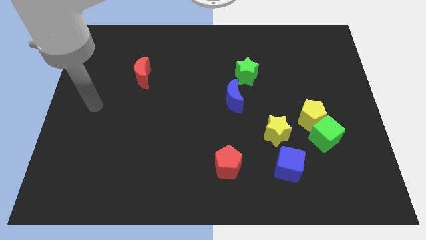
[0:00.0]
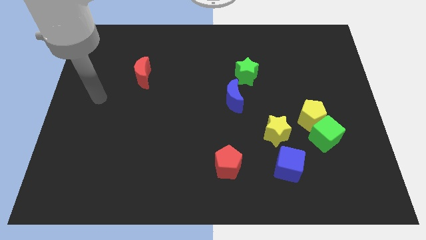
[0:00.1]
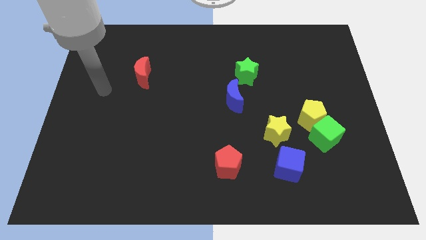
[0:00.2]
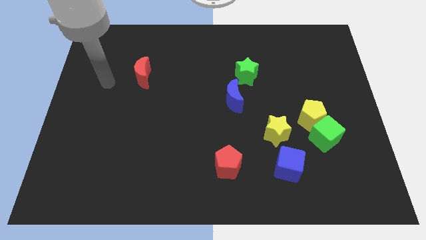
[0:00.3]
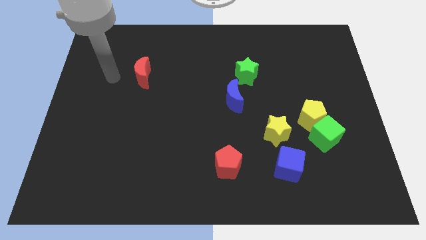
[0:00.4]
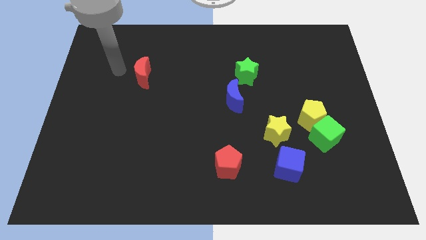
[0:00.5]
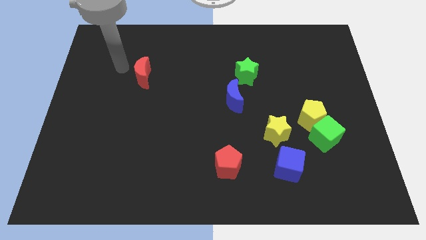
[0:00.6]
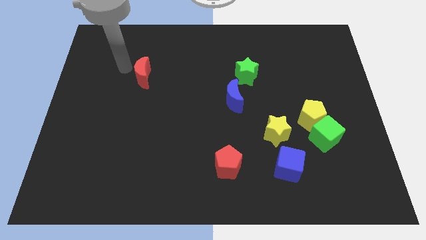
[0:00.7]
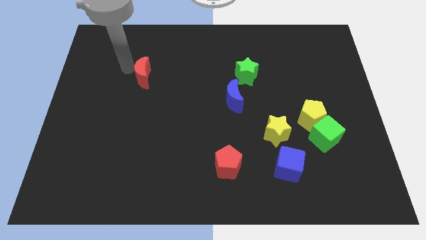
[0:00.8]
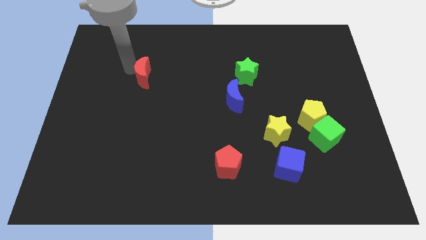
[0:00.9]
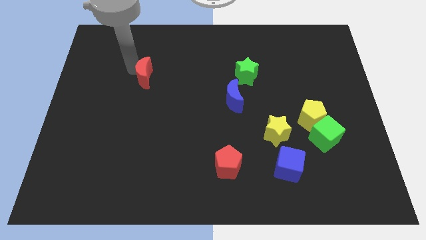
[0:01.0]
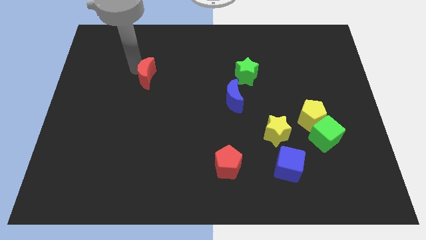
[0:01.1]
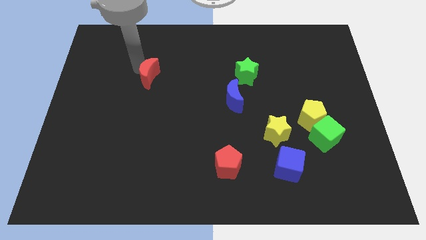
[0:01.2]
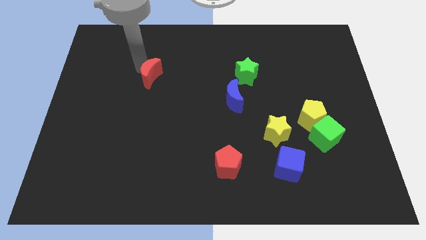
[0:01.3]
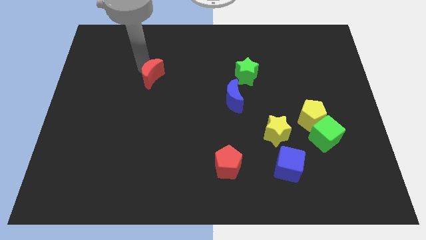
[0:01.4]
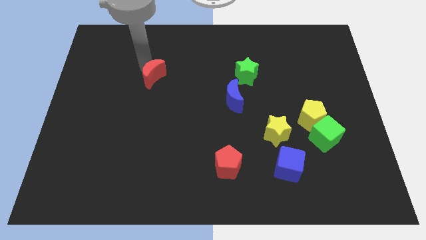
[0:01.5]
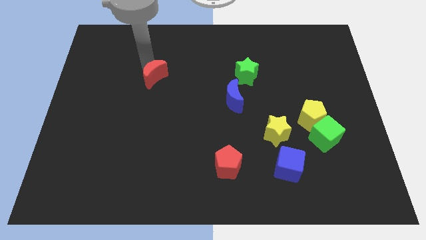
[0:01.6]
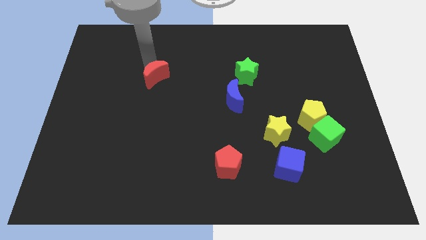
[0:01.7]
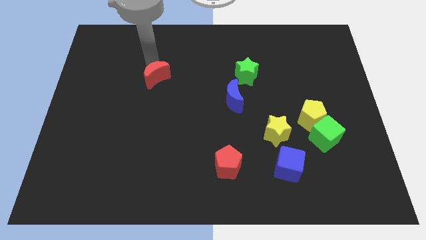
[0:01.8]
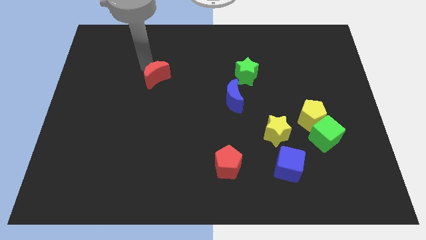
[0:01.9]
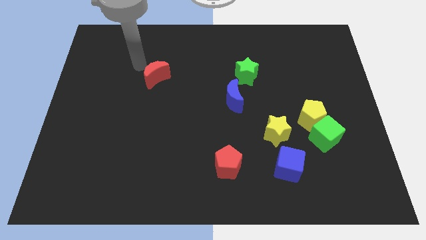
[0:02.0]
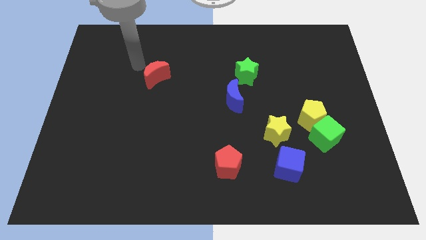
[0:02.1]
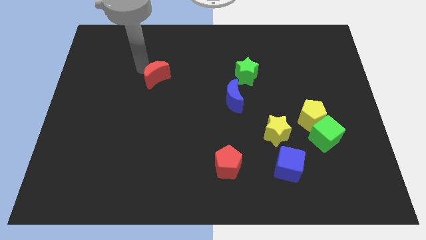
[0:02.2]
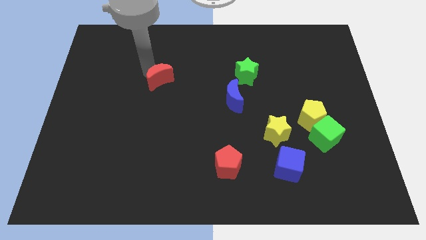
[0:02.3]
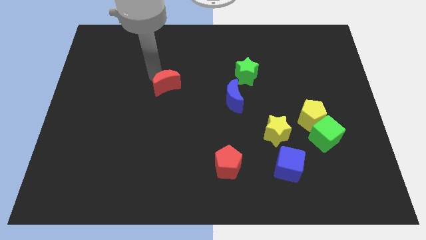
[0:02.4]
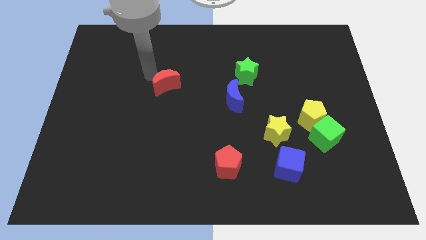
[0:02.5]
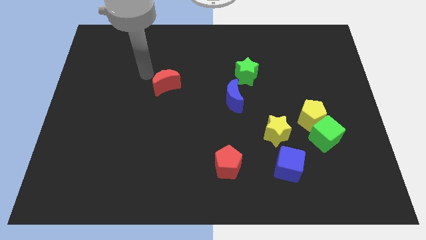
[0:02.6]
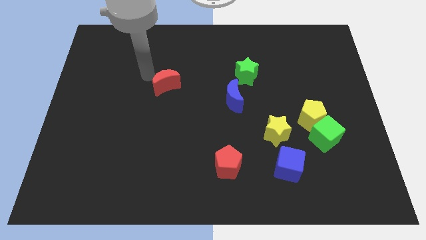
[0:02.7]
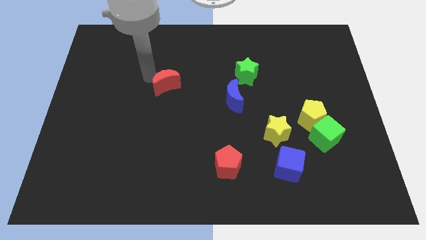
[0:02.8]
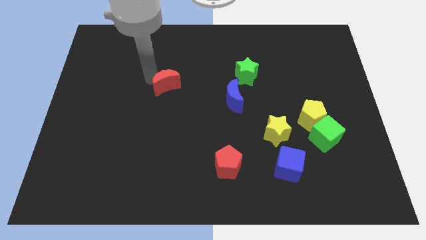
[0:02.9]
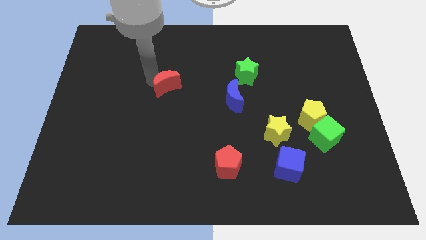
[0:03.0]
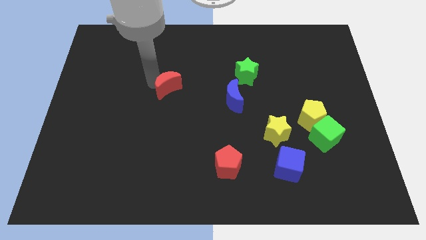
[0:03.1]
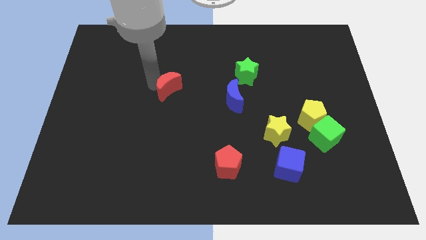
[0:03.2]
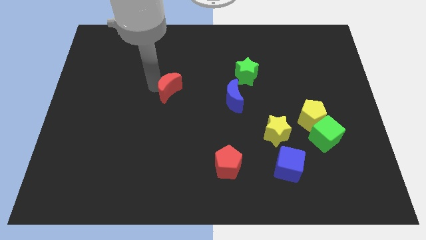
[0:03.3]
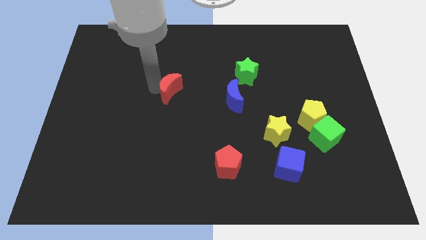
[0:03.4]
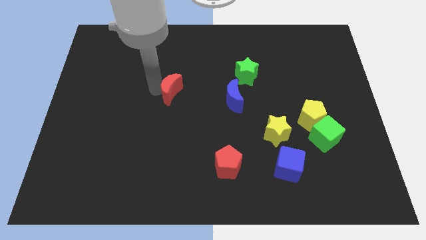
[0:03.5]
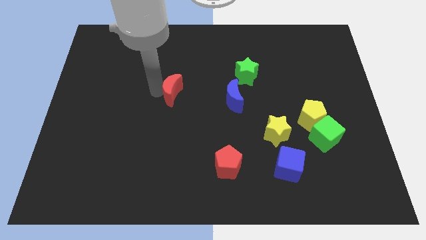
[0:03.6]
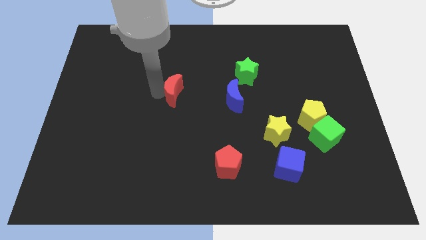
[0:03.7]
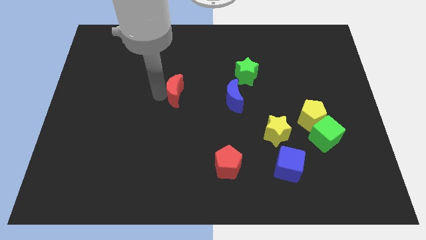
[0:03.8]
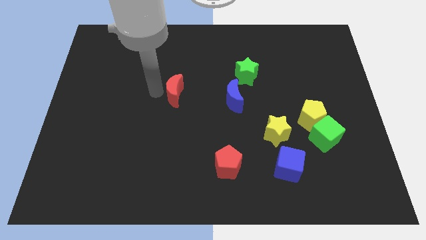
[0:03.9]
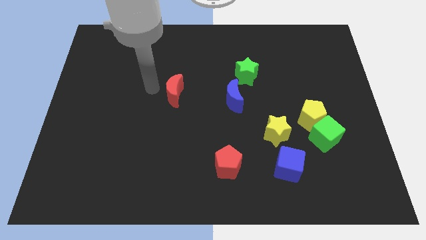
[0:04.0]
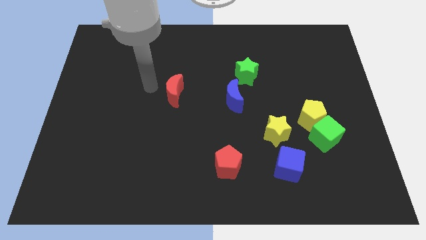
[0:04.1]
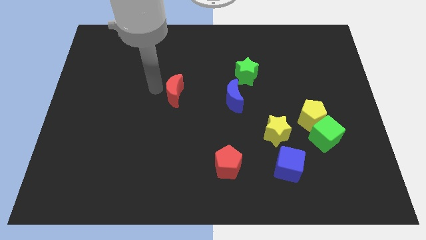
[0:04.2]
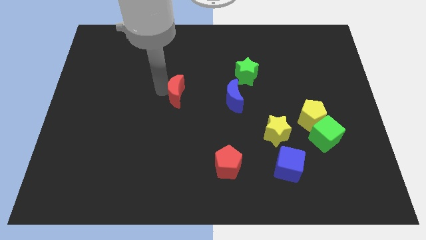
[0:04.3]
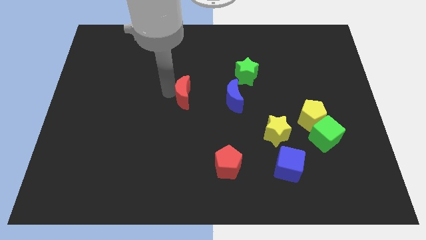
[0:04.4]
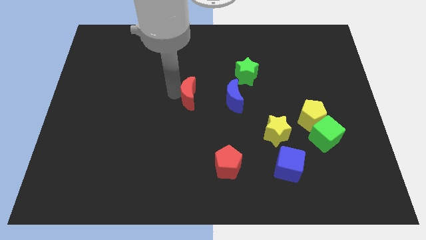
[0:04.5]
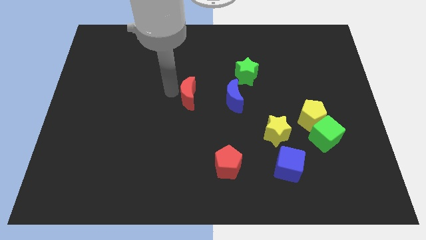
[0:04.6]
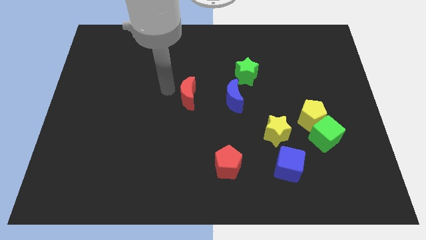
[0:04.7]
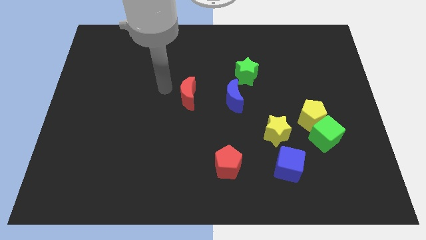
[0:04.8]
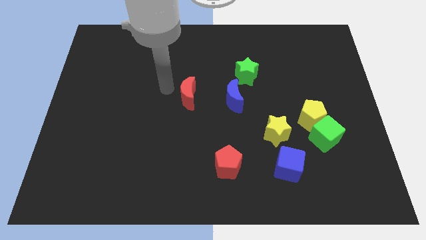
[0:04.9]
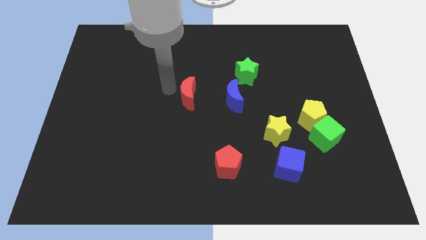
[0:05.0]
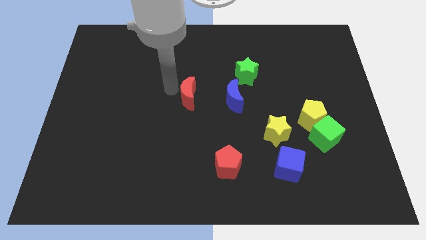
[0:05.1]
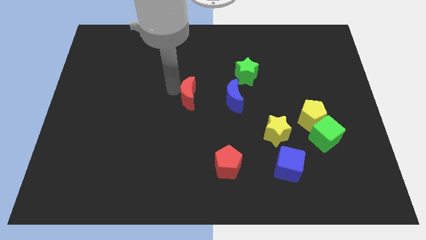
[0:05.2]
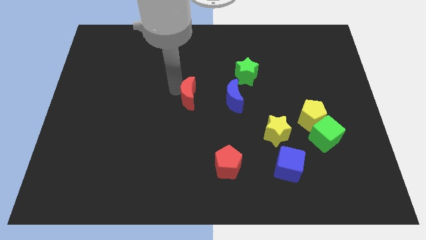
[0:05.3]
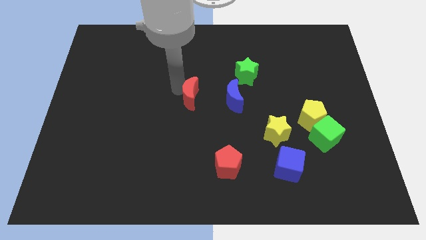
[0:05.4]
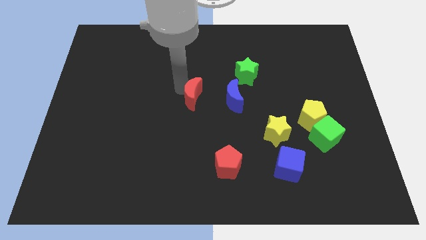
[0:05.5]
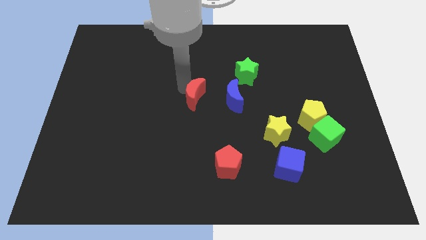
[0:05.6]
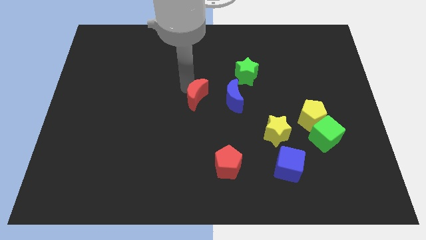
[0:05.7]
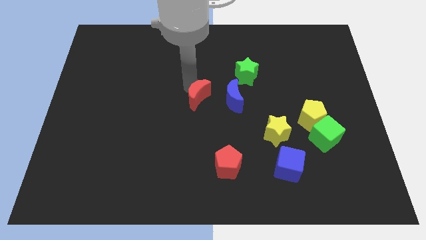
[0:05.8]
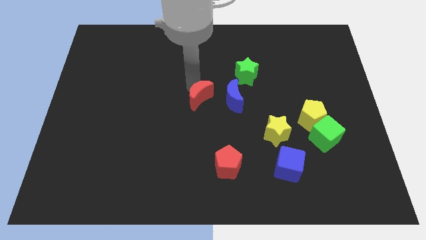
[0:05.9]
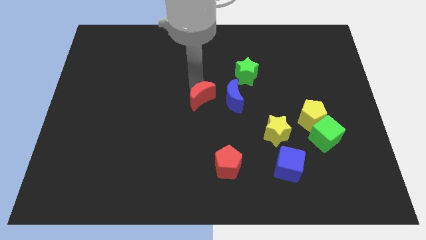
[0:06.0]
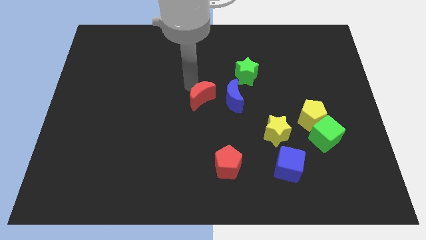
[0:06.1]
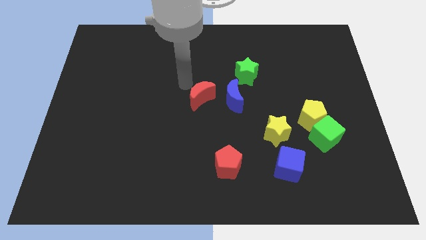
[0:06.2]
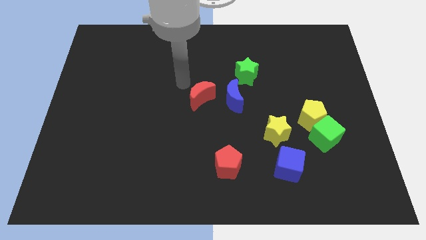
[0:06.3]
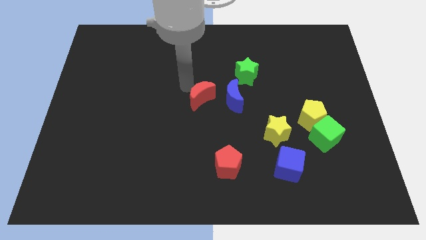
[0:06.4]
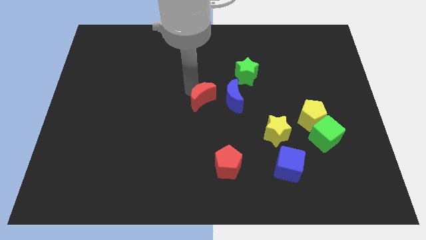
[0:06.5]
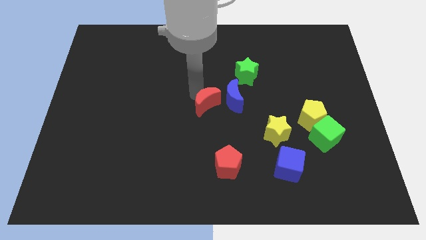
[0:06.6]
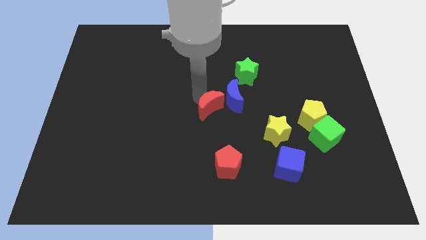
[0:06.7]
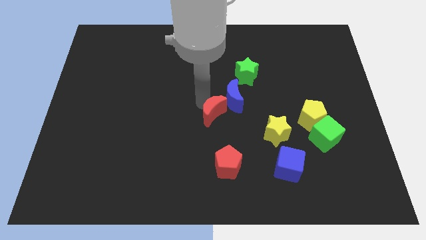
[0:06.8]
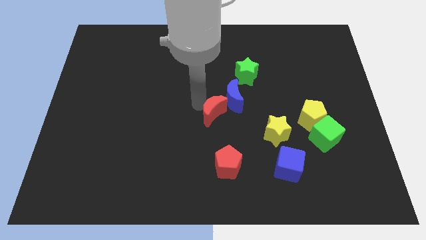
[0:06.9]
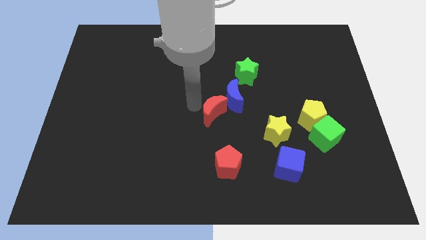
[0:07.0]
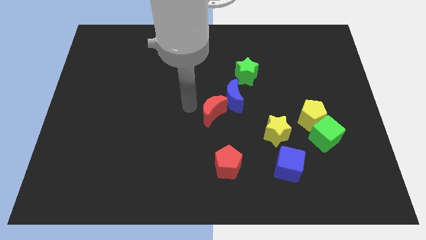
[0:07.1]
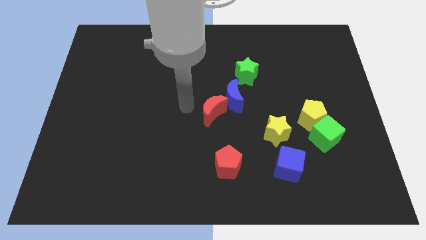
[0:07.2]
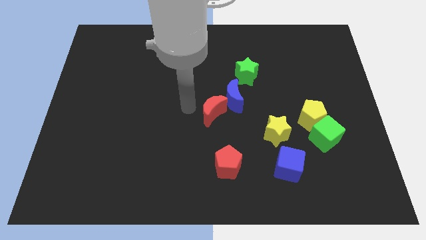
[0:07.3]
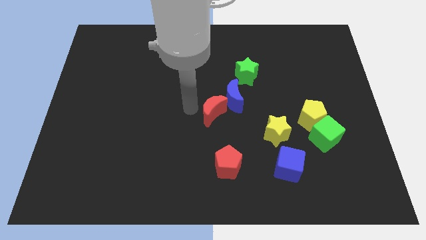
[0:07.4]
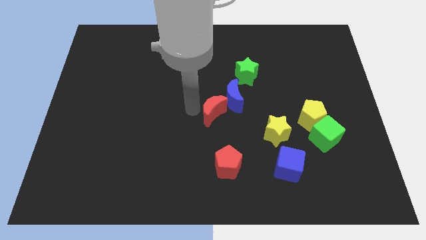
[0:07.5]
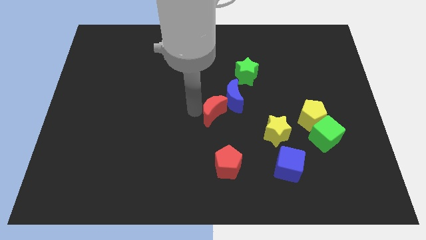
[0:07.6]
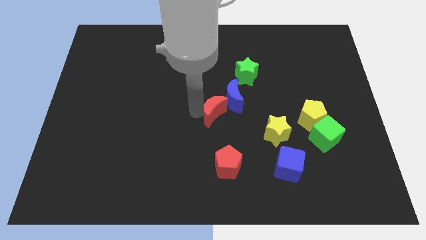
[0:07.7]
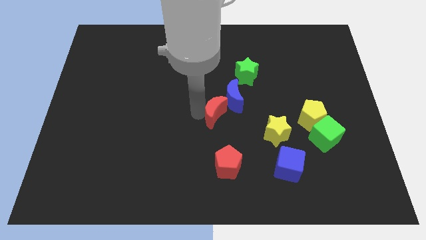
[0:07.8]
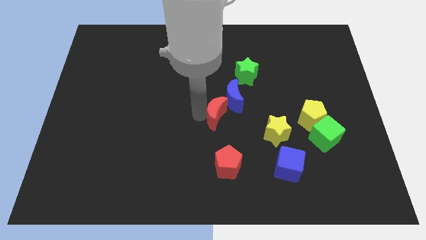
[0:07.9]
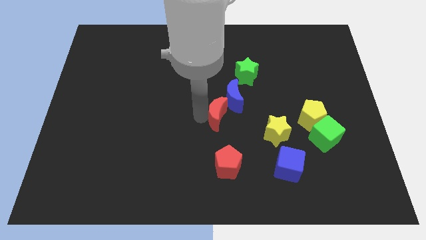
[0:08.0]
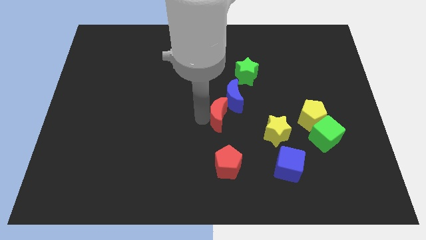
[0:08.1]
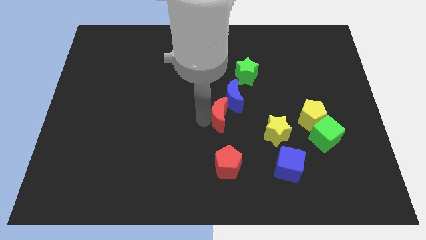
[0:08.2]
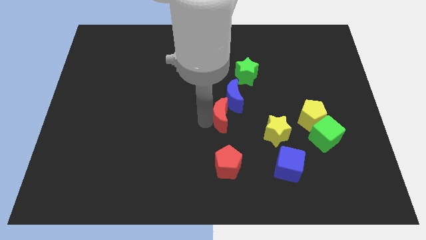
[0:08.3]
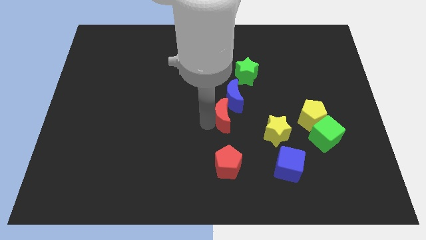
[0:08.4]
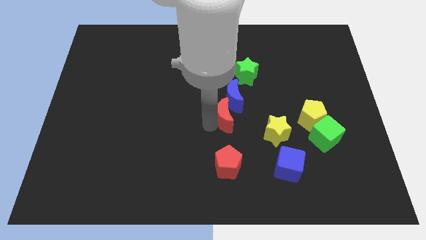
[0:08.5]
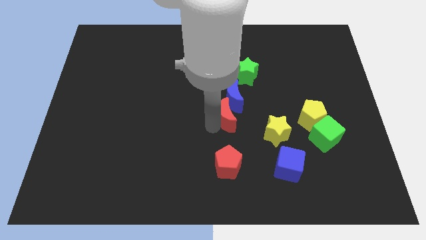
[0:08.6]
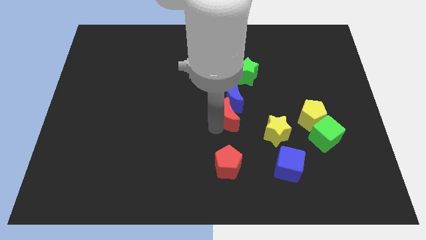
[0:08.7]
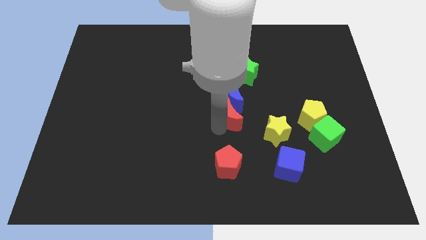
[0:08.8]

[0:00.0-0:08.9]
push the red moon below the green star
